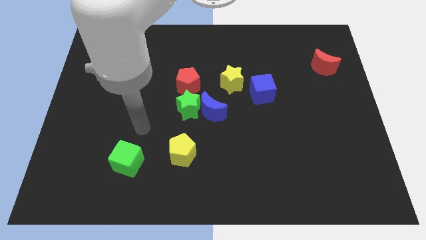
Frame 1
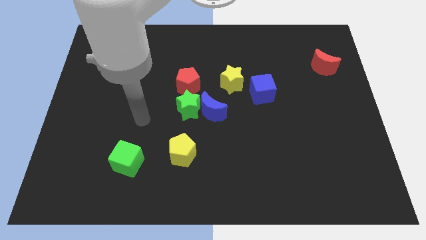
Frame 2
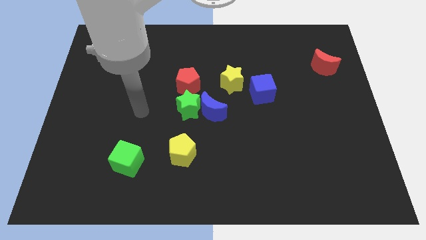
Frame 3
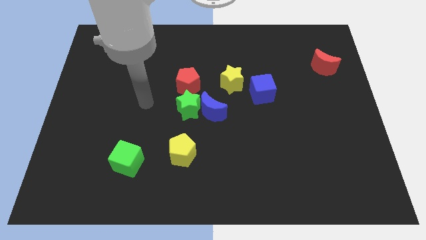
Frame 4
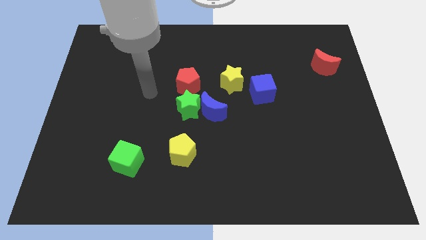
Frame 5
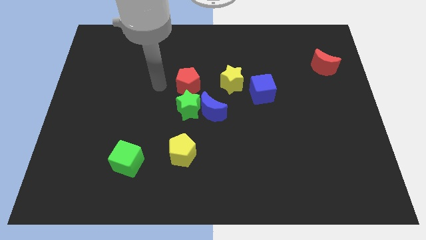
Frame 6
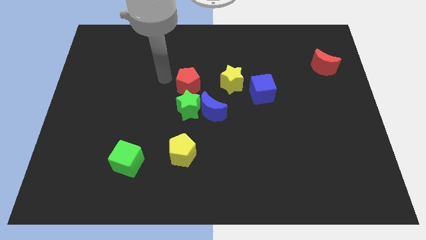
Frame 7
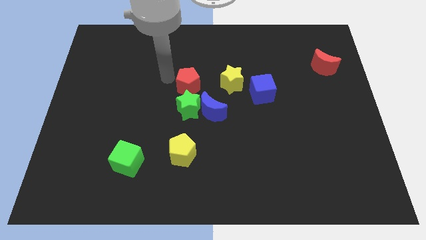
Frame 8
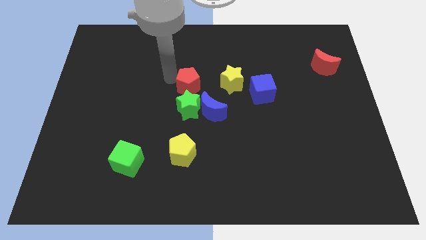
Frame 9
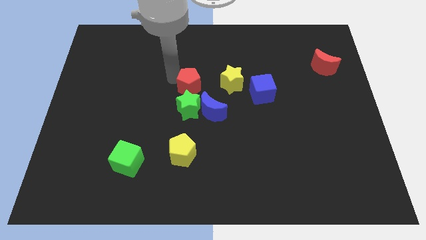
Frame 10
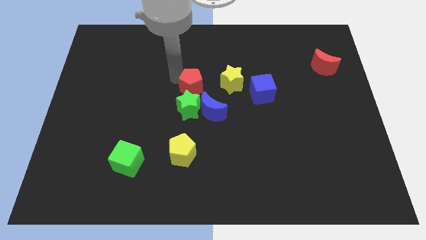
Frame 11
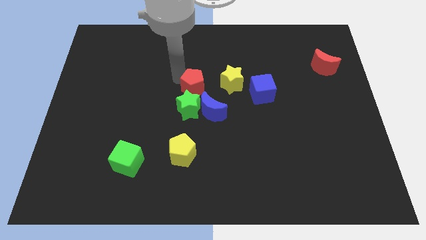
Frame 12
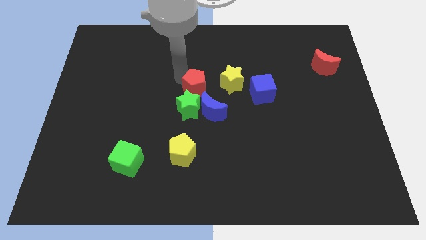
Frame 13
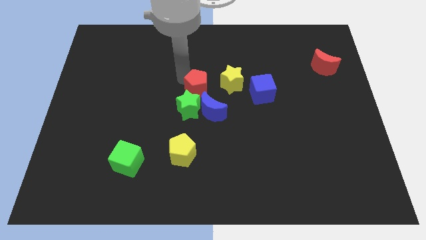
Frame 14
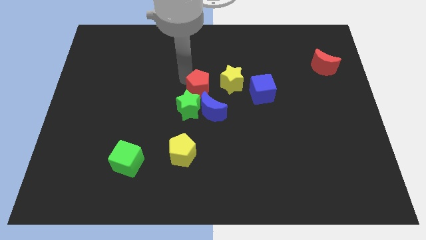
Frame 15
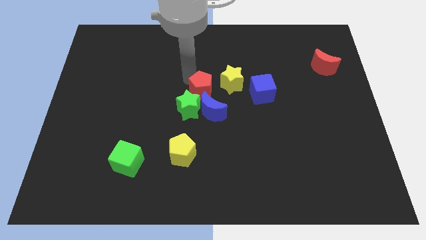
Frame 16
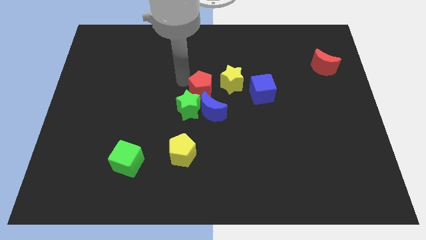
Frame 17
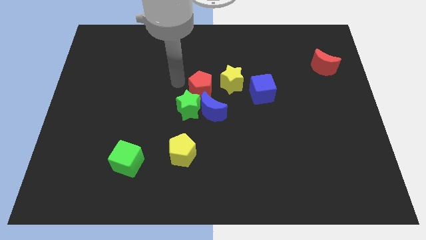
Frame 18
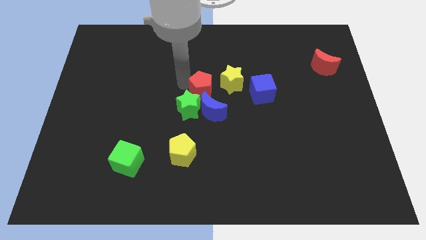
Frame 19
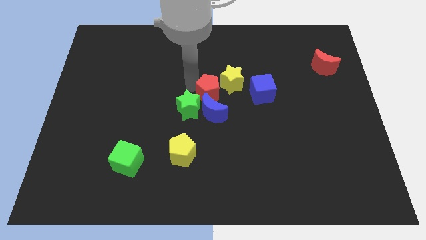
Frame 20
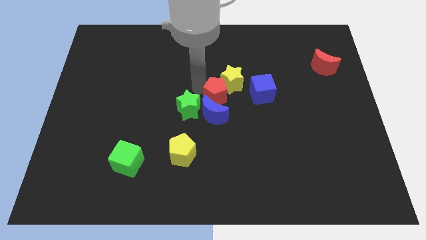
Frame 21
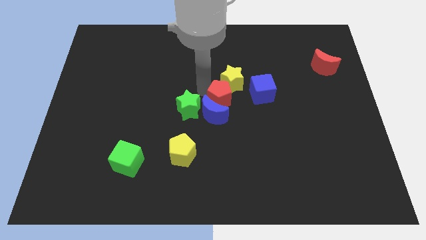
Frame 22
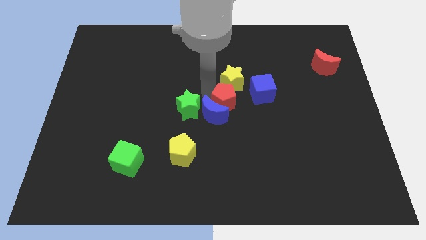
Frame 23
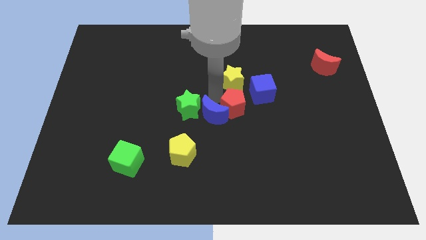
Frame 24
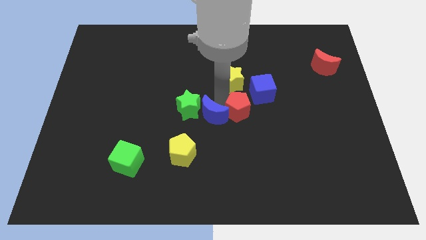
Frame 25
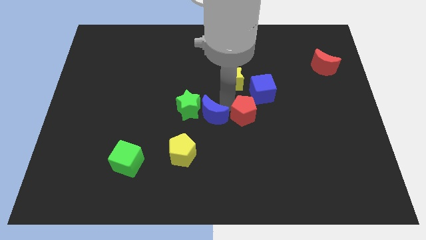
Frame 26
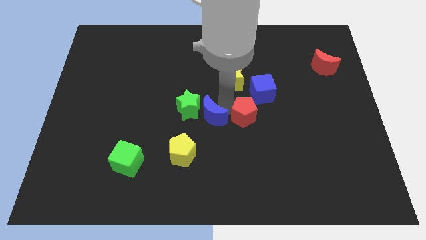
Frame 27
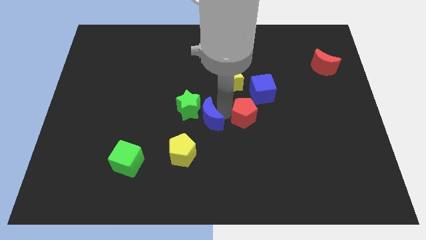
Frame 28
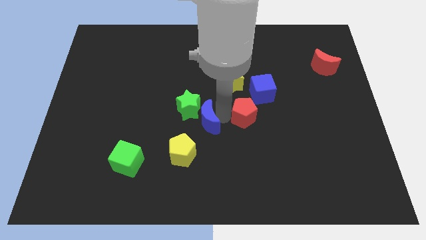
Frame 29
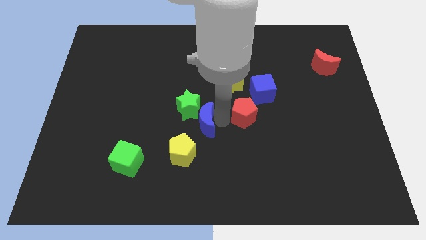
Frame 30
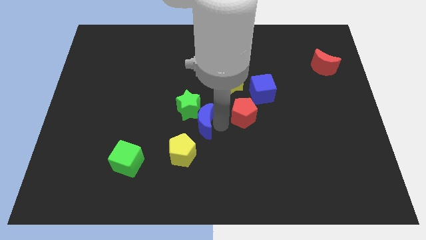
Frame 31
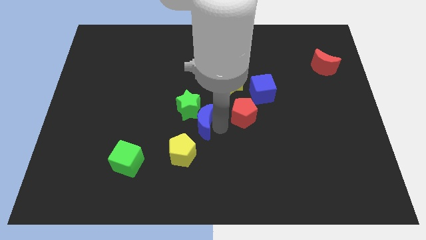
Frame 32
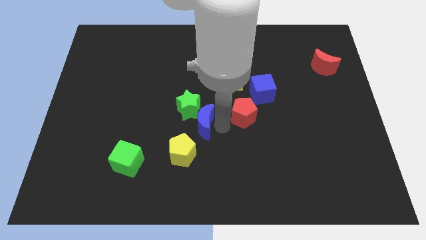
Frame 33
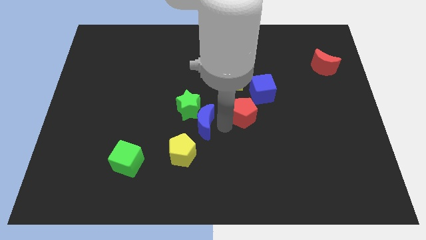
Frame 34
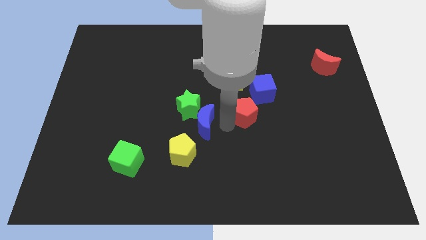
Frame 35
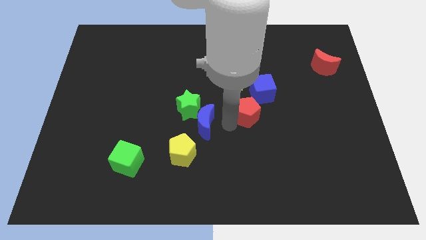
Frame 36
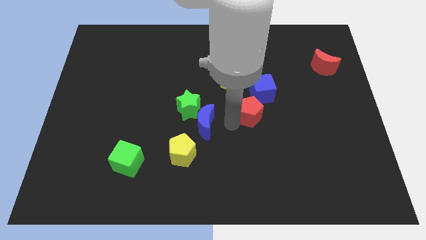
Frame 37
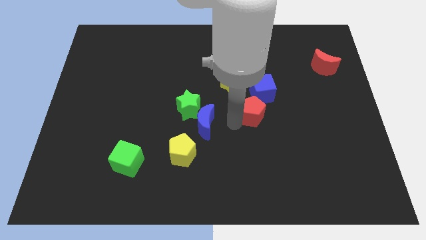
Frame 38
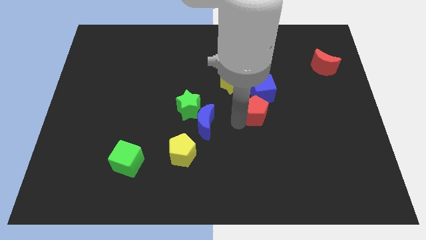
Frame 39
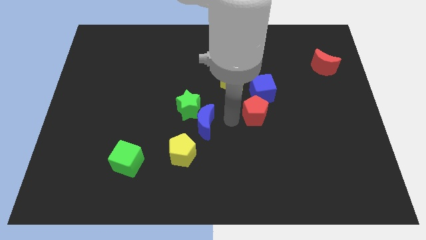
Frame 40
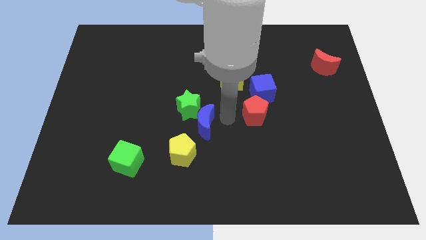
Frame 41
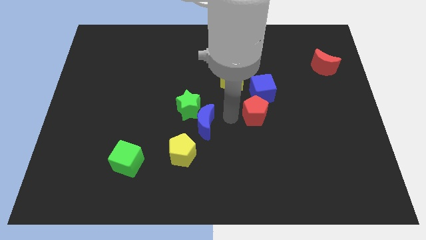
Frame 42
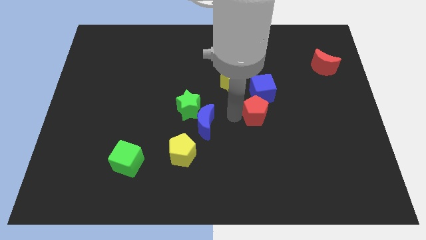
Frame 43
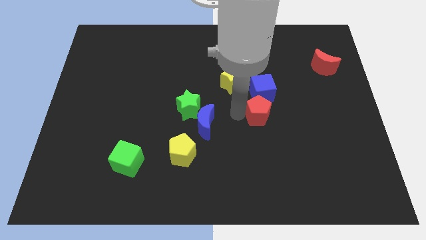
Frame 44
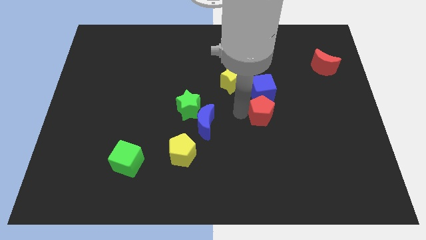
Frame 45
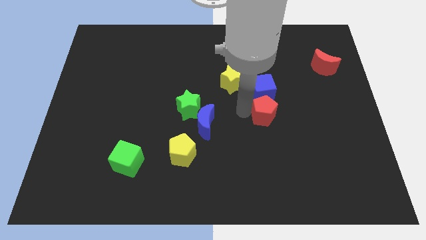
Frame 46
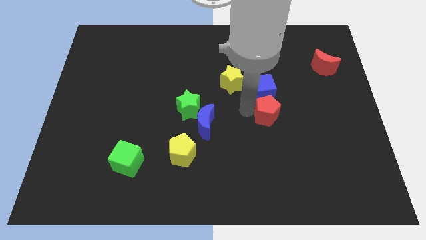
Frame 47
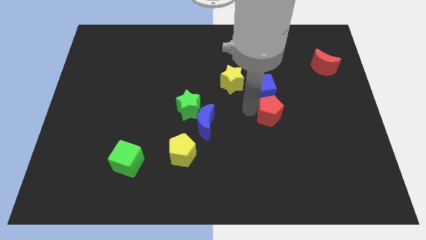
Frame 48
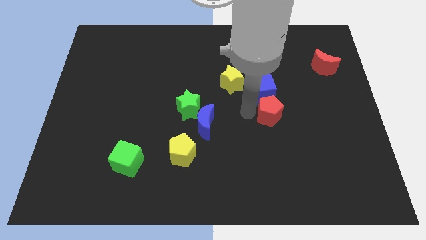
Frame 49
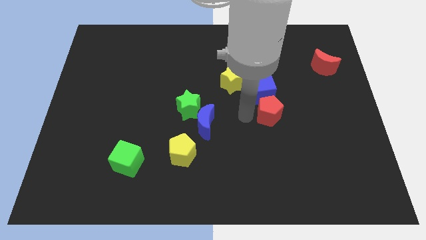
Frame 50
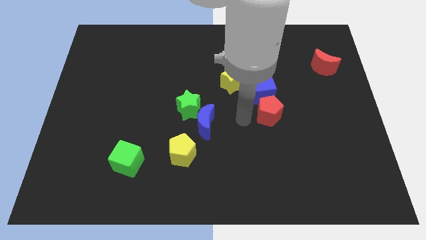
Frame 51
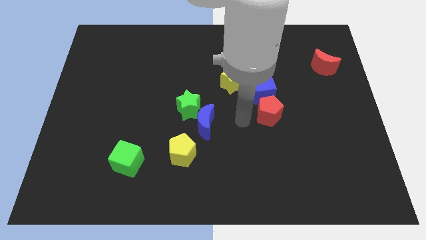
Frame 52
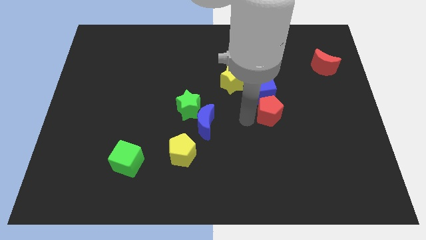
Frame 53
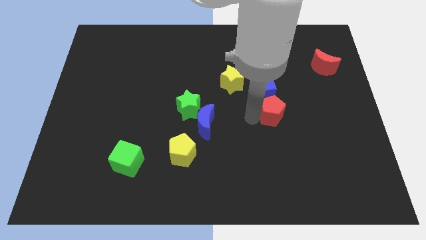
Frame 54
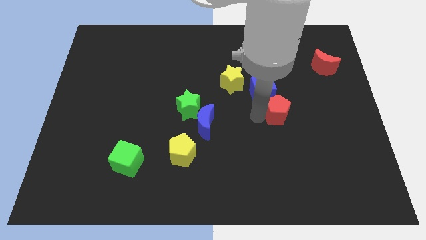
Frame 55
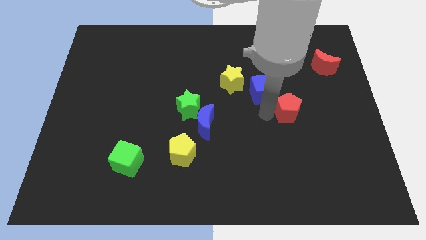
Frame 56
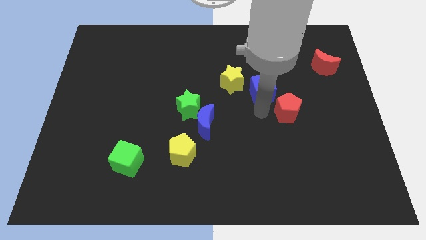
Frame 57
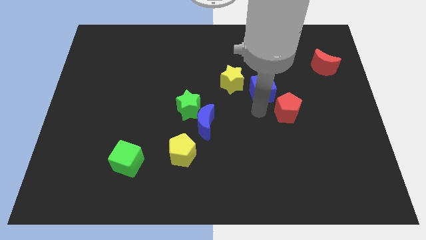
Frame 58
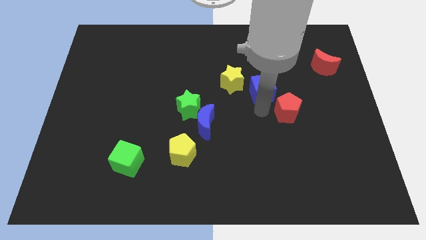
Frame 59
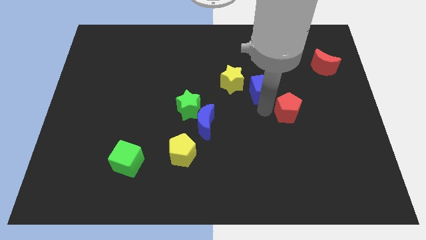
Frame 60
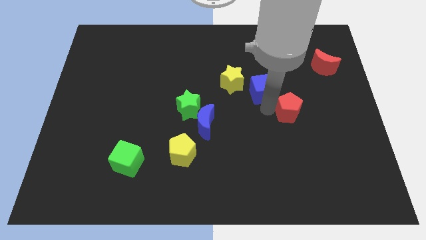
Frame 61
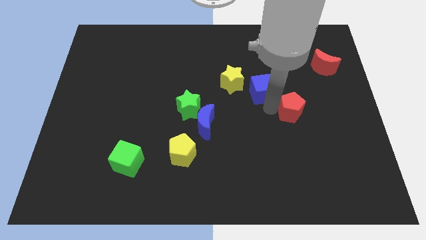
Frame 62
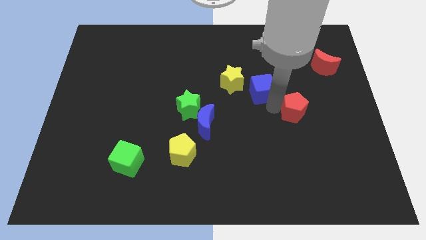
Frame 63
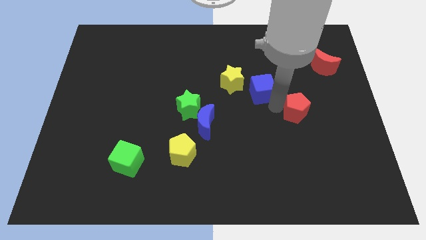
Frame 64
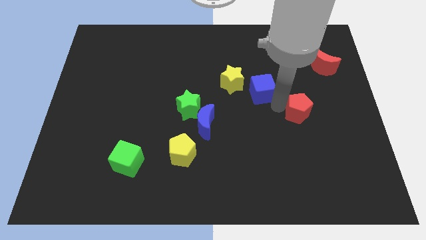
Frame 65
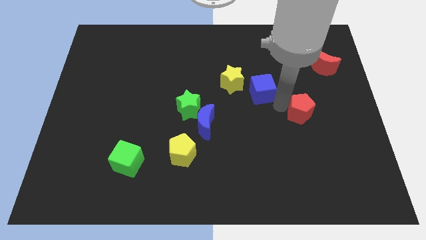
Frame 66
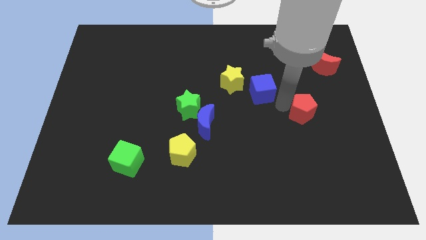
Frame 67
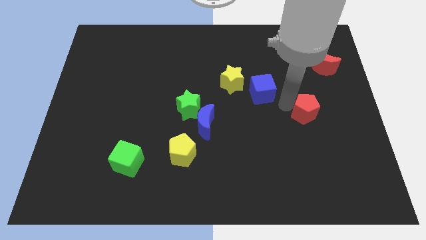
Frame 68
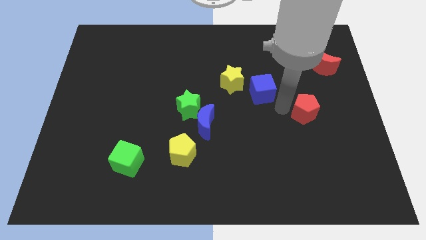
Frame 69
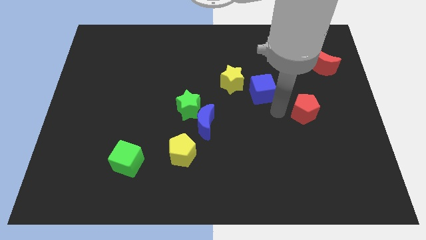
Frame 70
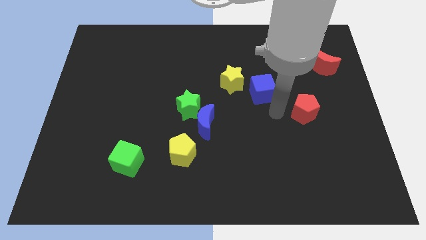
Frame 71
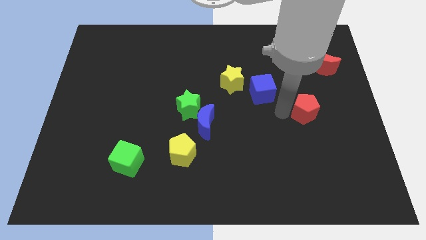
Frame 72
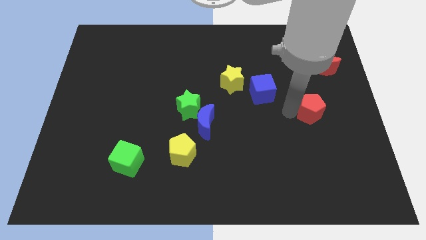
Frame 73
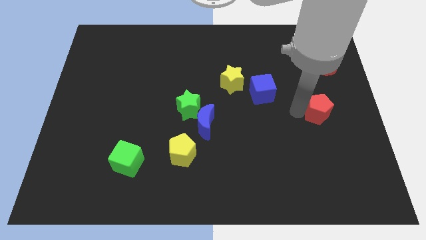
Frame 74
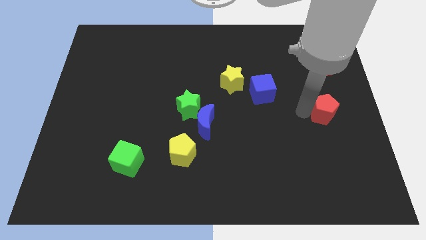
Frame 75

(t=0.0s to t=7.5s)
put the red pentagon to the right side of the board
